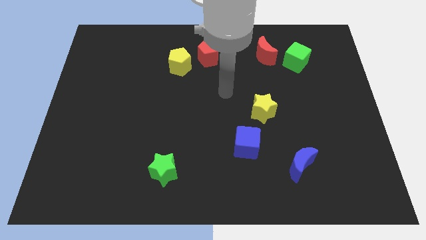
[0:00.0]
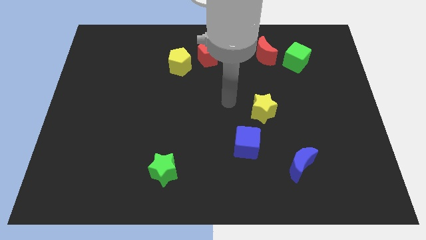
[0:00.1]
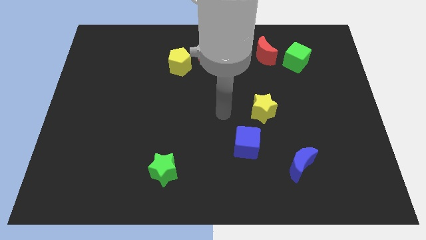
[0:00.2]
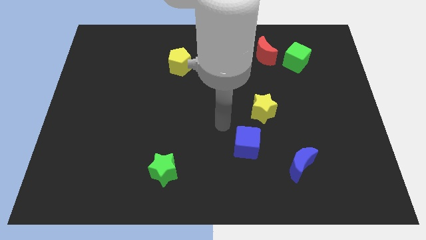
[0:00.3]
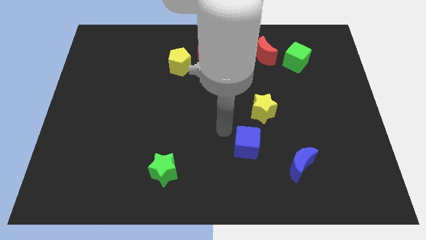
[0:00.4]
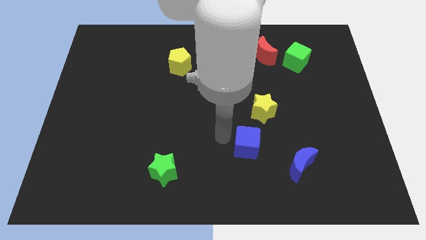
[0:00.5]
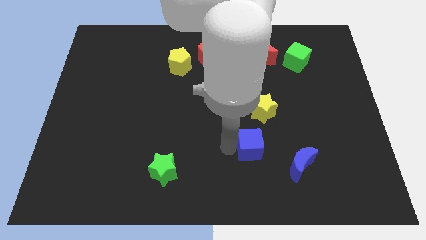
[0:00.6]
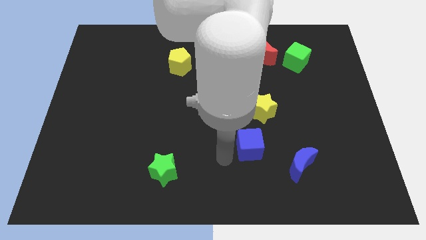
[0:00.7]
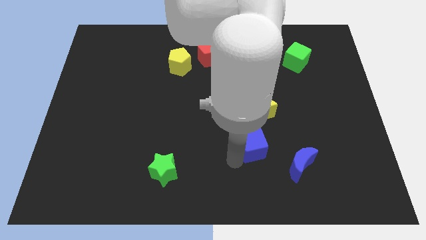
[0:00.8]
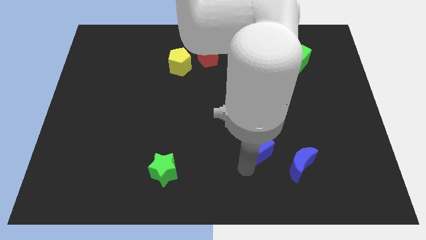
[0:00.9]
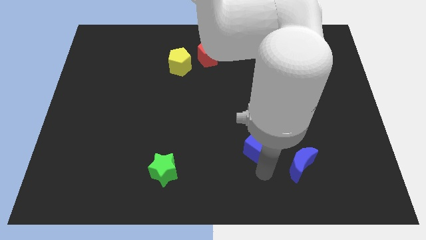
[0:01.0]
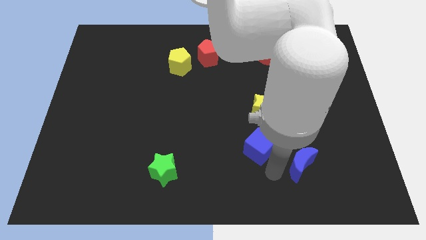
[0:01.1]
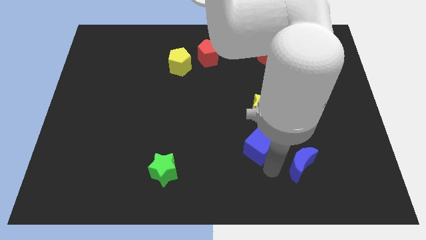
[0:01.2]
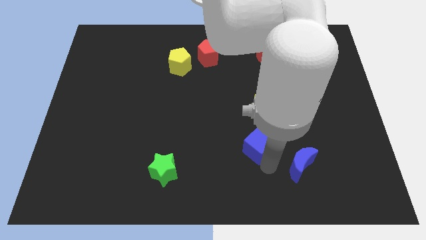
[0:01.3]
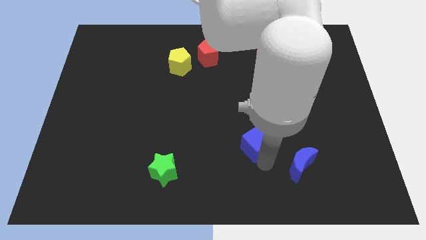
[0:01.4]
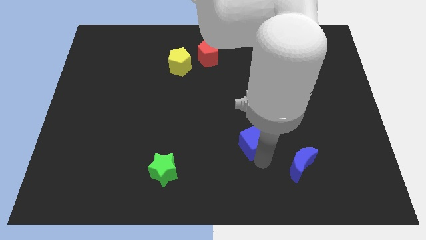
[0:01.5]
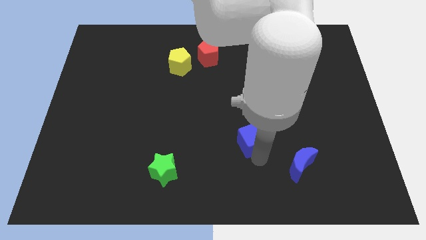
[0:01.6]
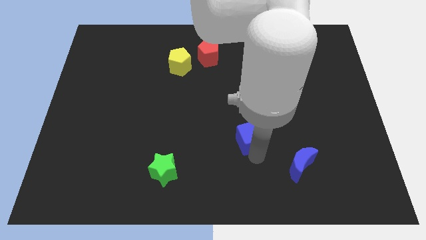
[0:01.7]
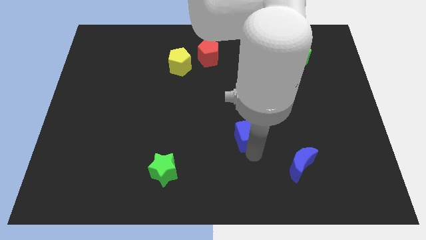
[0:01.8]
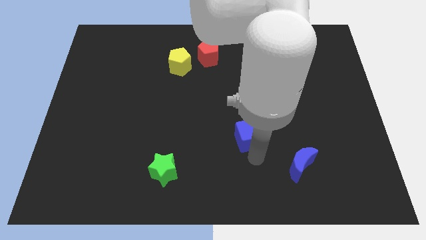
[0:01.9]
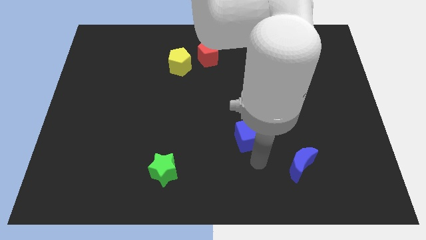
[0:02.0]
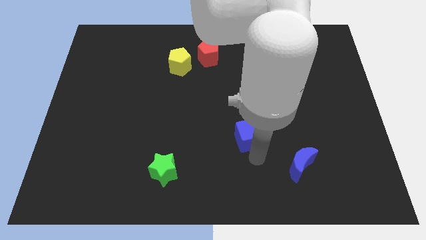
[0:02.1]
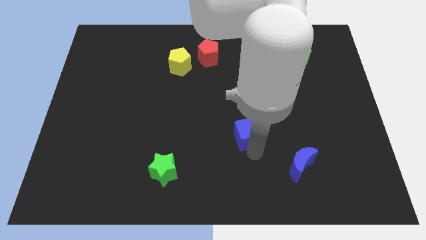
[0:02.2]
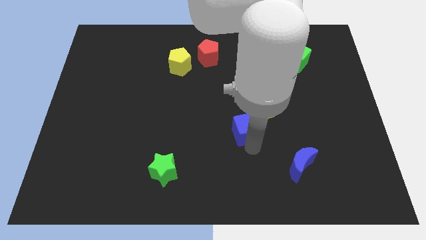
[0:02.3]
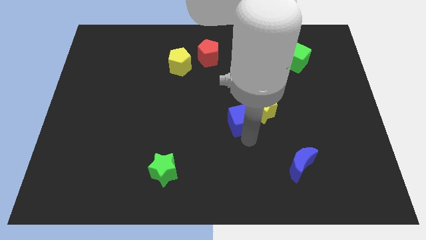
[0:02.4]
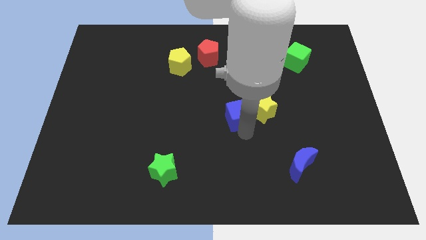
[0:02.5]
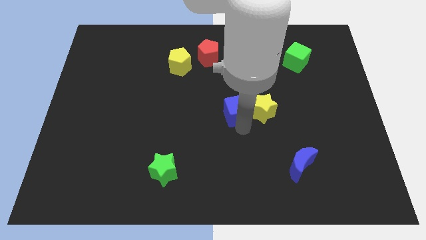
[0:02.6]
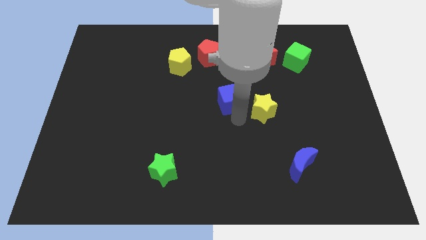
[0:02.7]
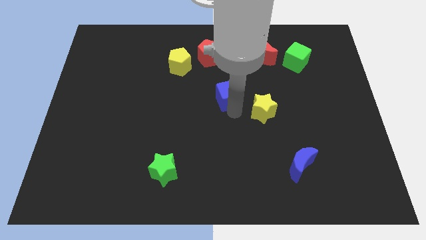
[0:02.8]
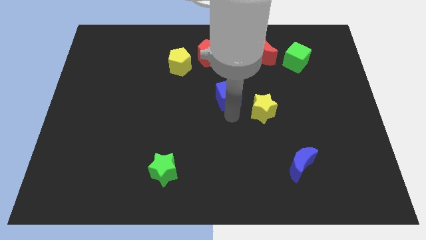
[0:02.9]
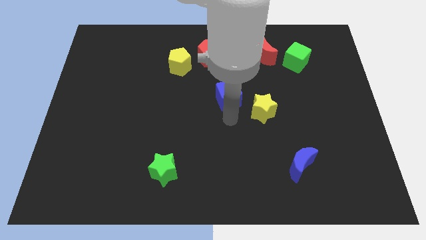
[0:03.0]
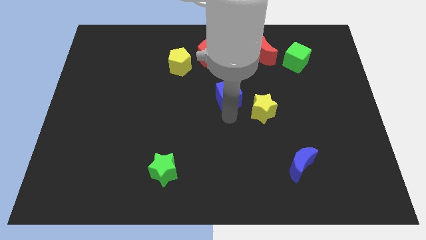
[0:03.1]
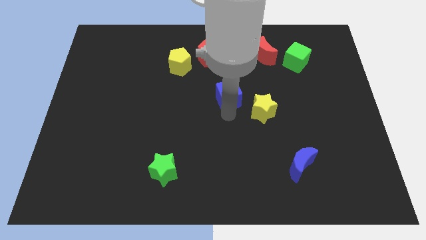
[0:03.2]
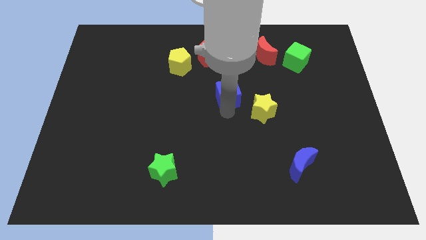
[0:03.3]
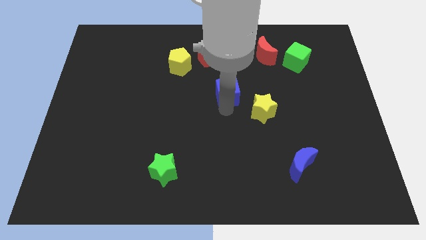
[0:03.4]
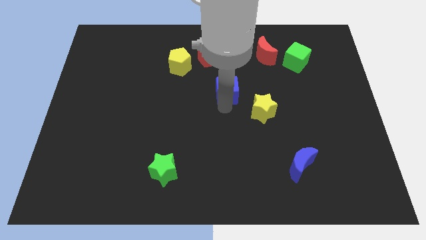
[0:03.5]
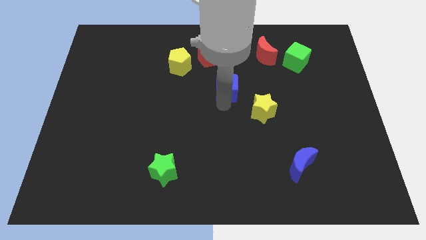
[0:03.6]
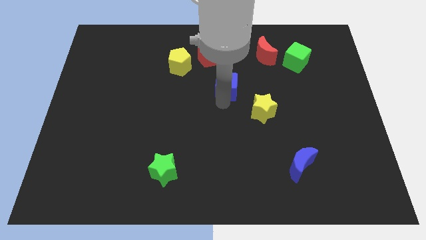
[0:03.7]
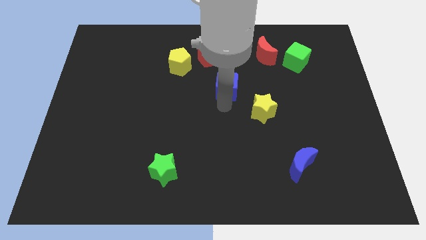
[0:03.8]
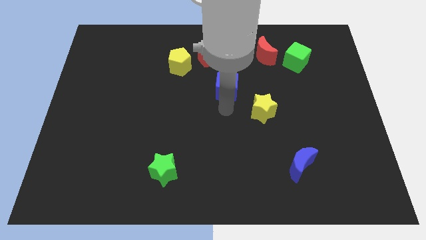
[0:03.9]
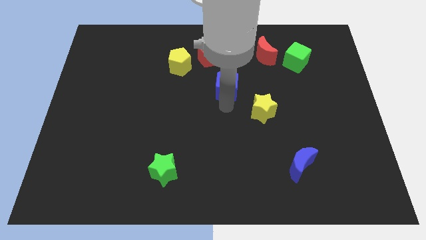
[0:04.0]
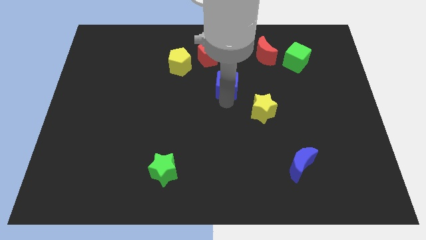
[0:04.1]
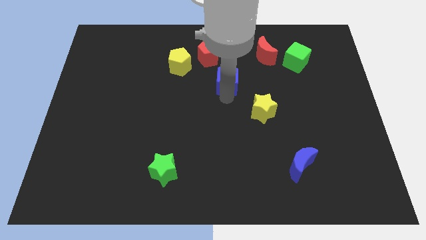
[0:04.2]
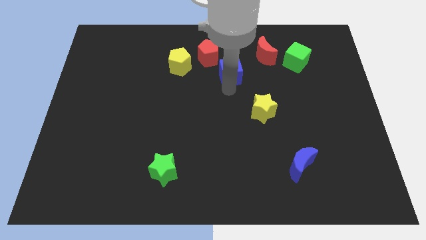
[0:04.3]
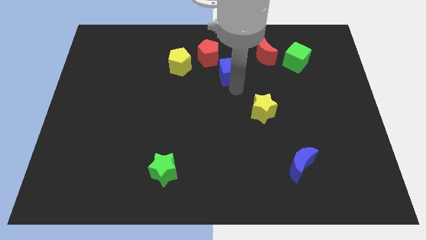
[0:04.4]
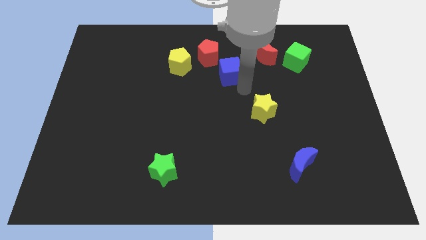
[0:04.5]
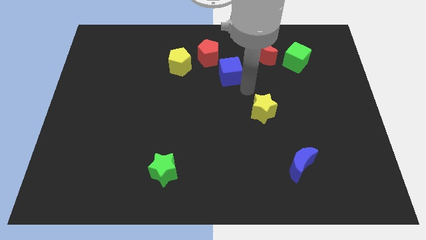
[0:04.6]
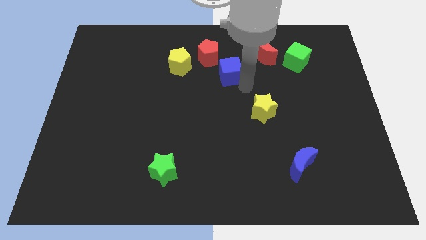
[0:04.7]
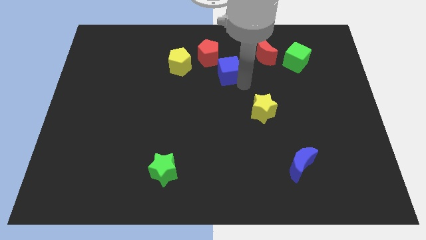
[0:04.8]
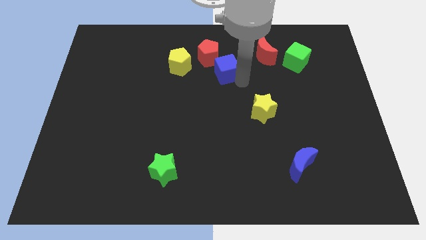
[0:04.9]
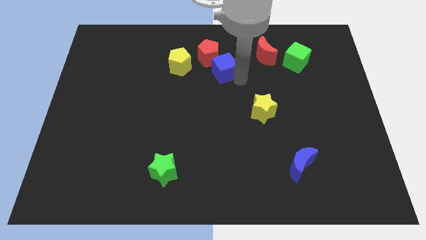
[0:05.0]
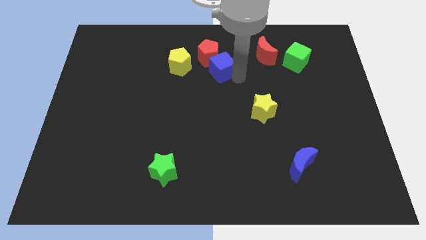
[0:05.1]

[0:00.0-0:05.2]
slide the blue cube close to the red pentagon

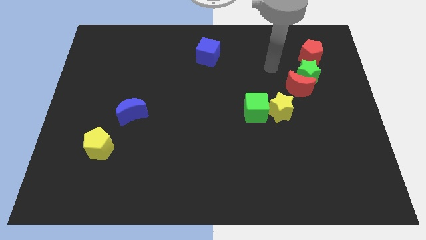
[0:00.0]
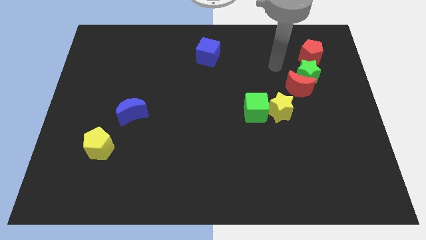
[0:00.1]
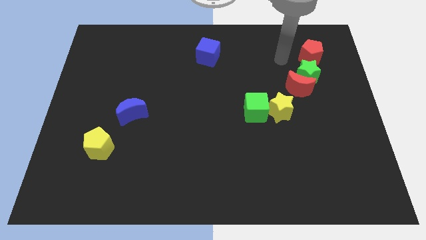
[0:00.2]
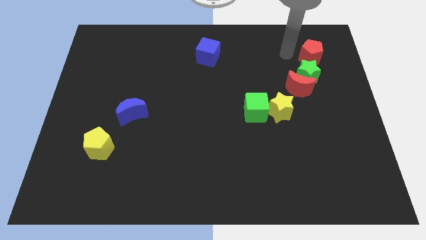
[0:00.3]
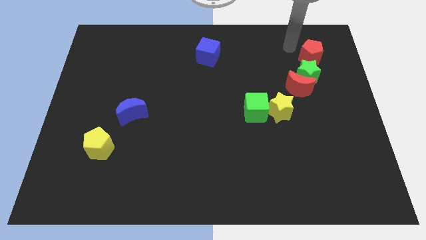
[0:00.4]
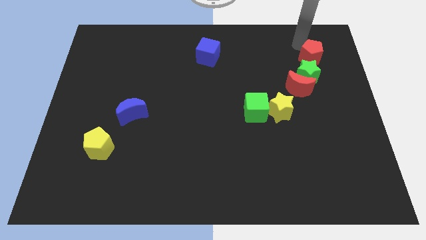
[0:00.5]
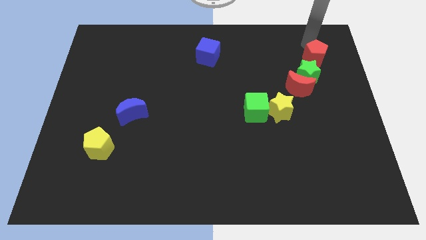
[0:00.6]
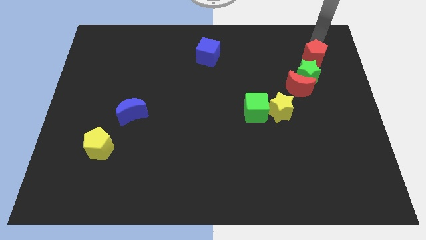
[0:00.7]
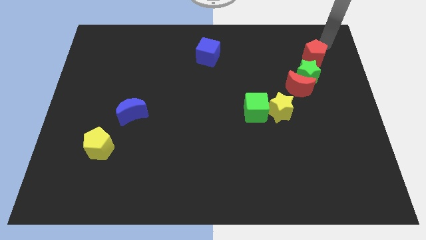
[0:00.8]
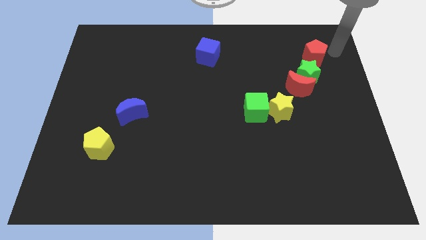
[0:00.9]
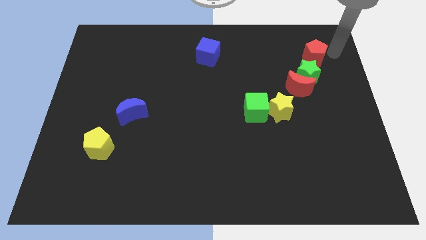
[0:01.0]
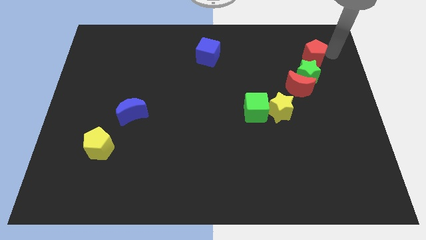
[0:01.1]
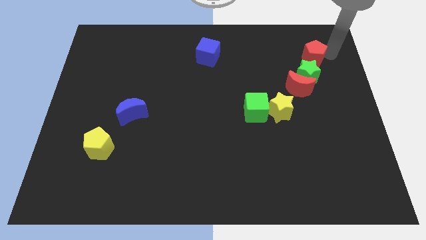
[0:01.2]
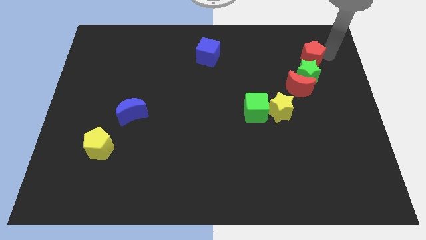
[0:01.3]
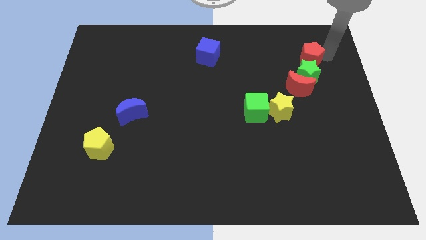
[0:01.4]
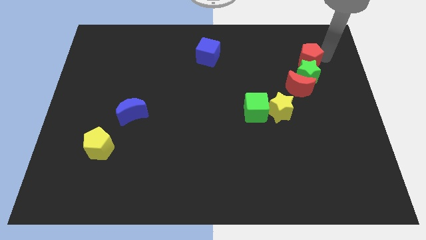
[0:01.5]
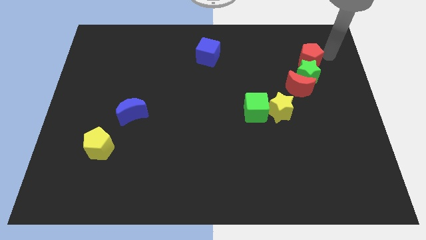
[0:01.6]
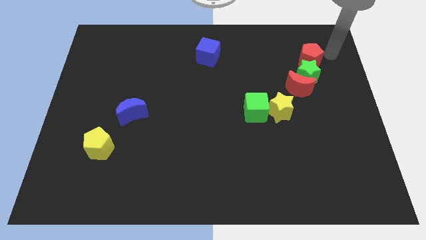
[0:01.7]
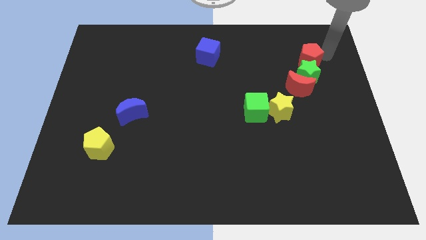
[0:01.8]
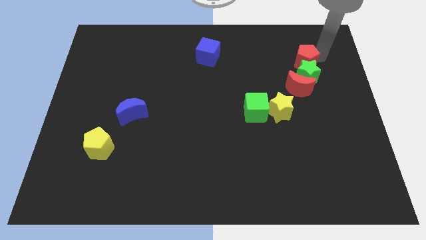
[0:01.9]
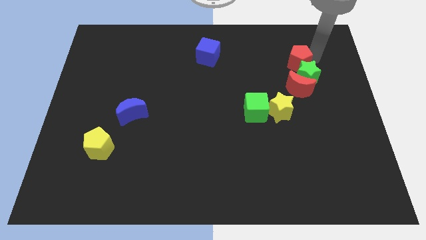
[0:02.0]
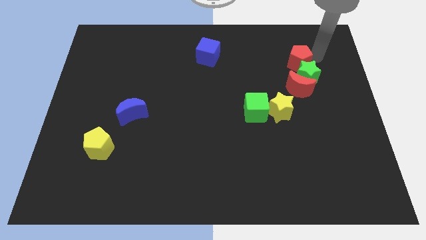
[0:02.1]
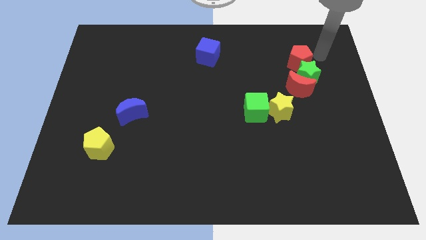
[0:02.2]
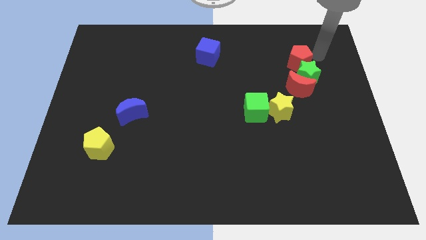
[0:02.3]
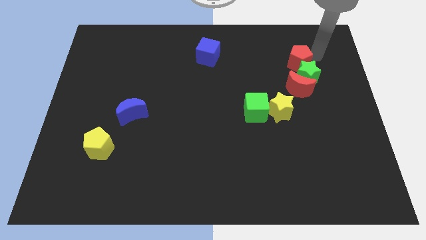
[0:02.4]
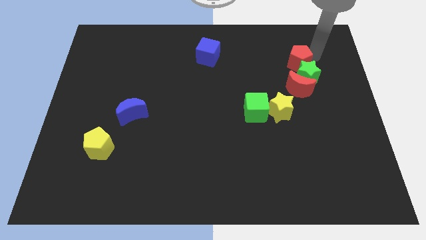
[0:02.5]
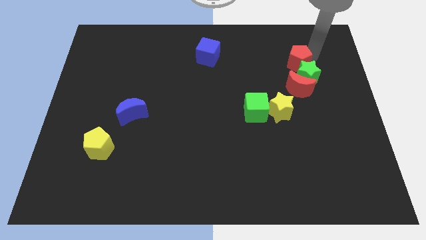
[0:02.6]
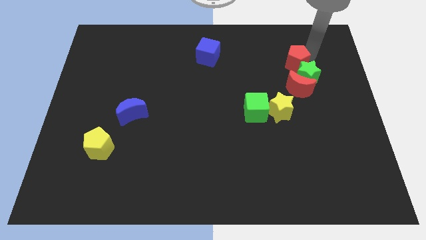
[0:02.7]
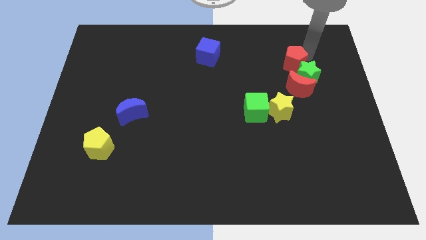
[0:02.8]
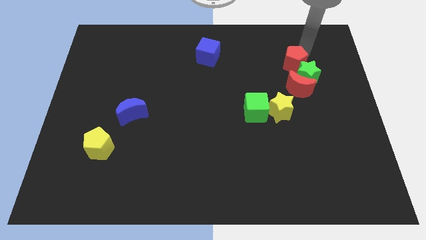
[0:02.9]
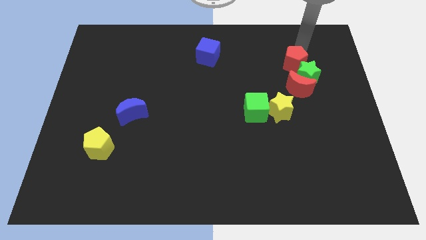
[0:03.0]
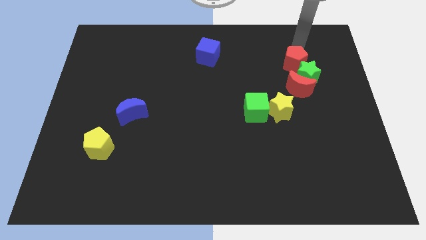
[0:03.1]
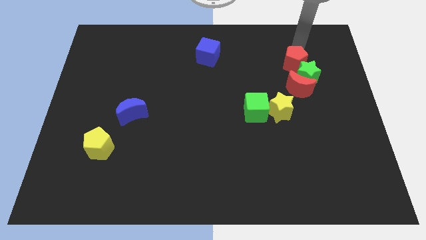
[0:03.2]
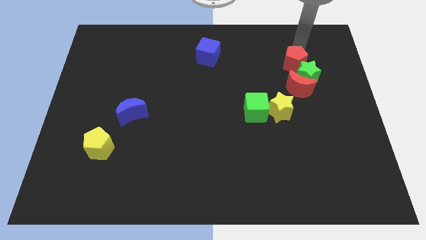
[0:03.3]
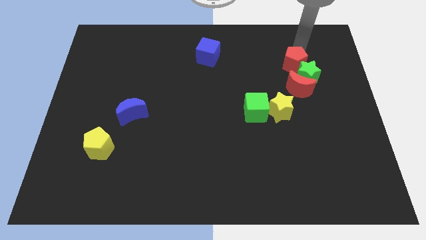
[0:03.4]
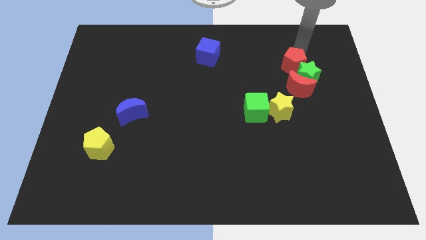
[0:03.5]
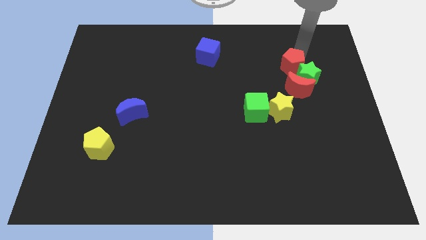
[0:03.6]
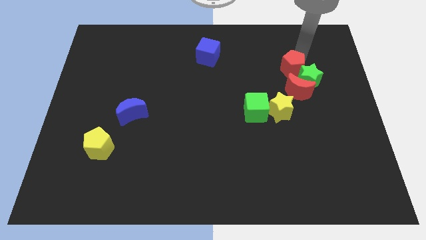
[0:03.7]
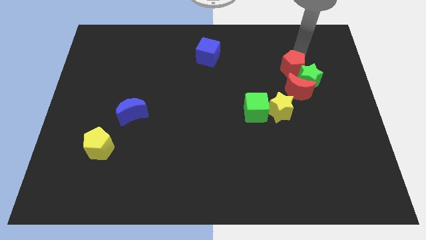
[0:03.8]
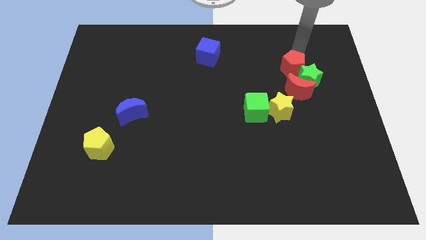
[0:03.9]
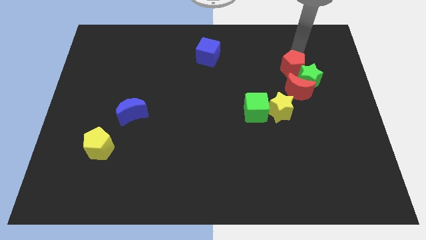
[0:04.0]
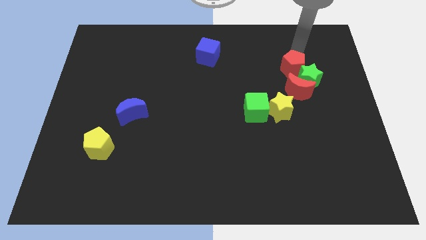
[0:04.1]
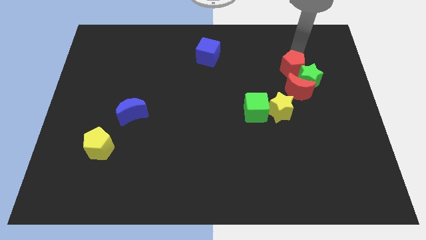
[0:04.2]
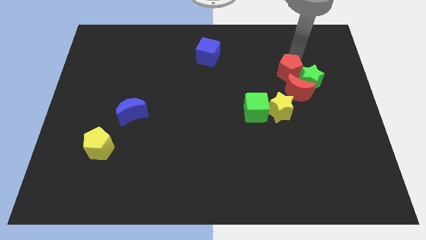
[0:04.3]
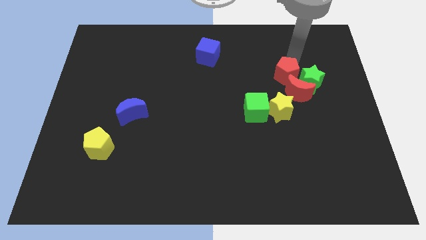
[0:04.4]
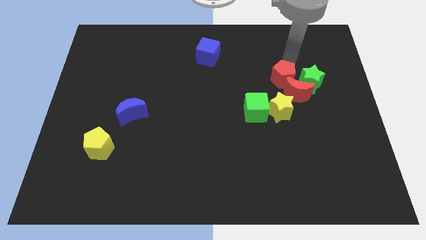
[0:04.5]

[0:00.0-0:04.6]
put the red pentagon towards the red moon
